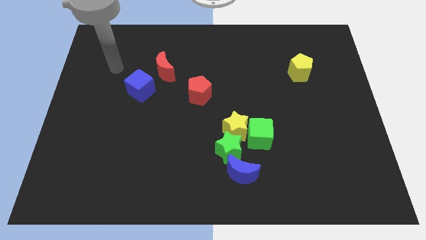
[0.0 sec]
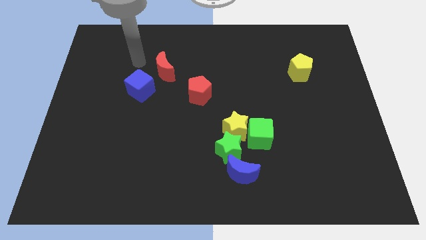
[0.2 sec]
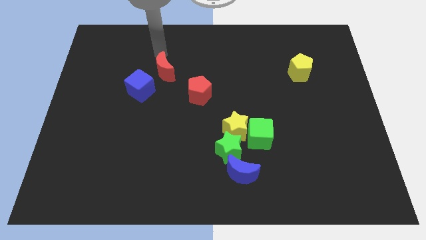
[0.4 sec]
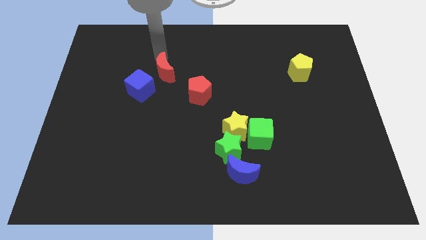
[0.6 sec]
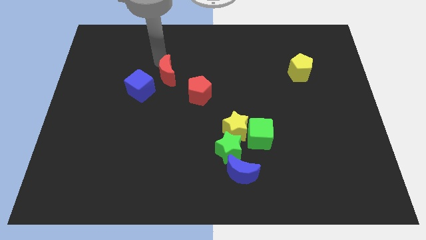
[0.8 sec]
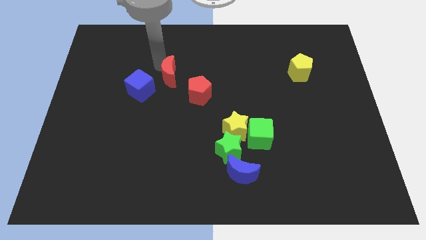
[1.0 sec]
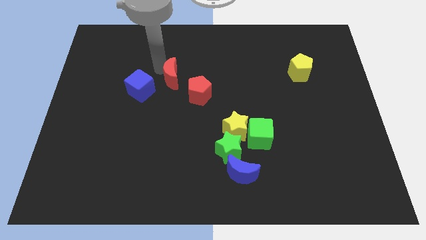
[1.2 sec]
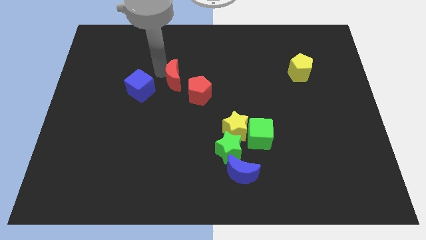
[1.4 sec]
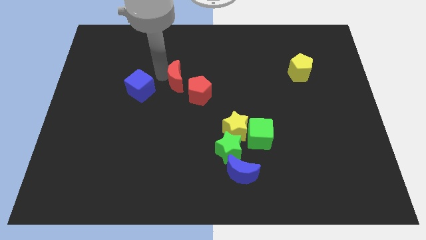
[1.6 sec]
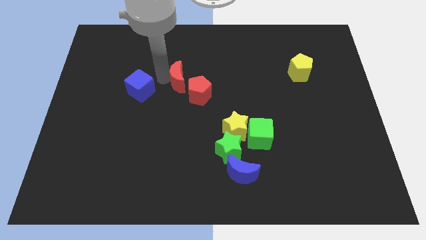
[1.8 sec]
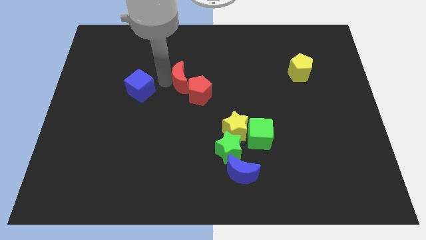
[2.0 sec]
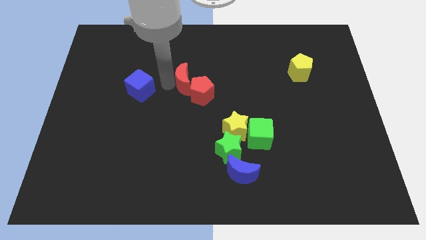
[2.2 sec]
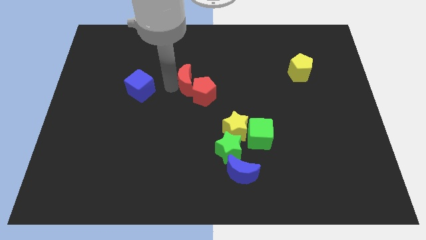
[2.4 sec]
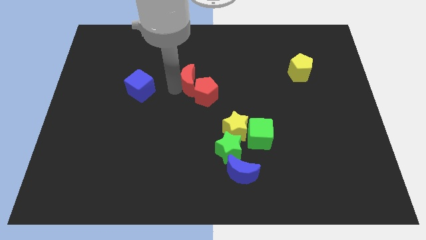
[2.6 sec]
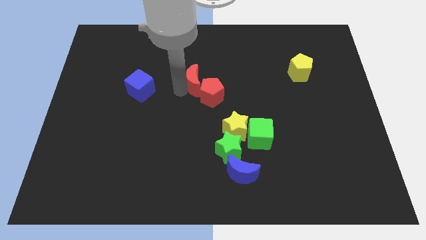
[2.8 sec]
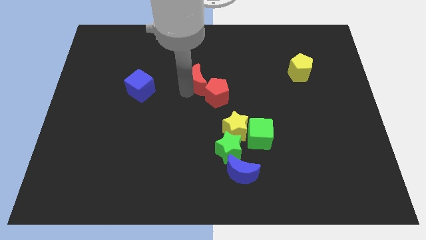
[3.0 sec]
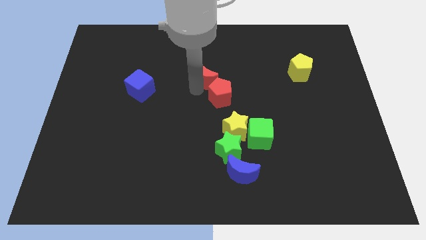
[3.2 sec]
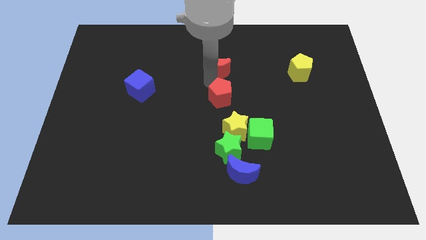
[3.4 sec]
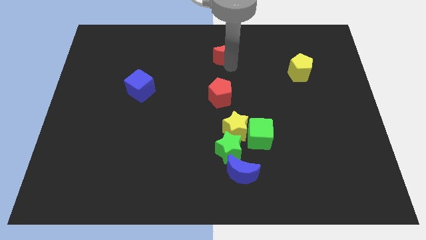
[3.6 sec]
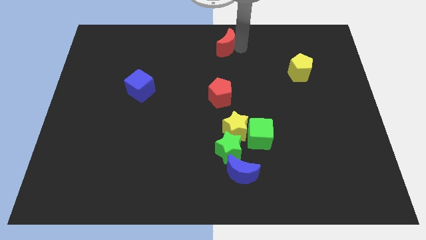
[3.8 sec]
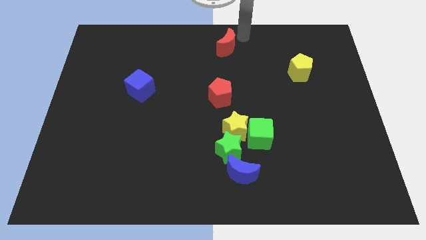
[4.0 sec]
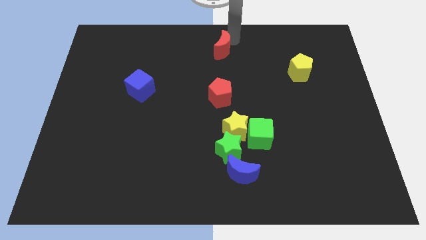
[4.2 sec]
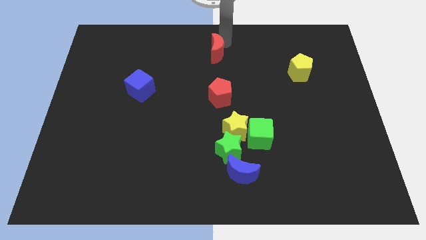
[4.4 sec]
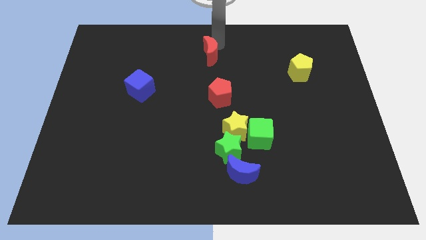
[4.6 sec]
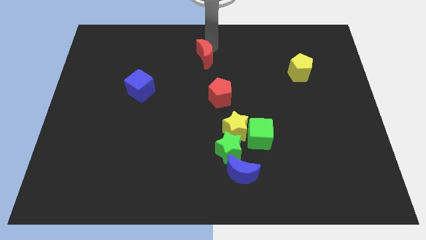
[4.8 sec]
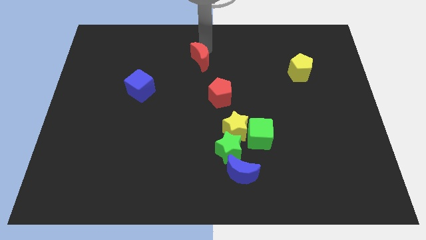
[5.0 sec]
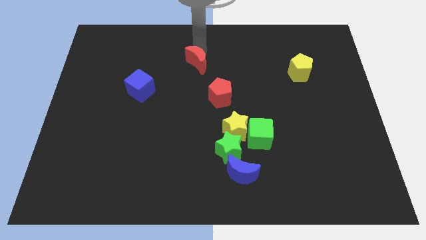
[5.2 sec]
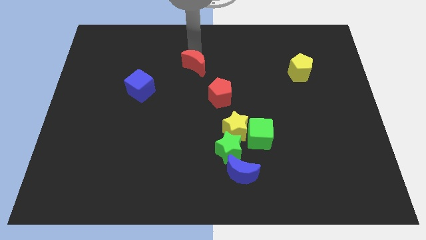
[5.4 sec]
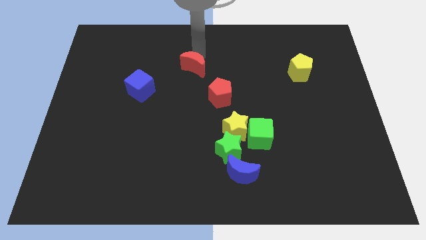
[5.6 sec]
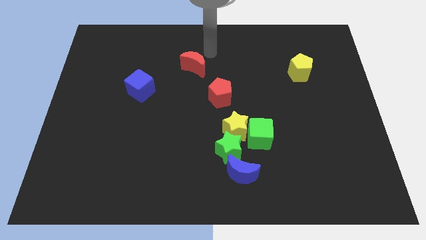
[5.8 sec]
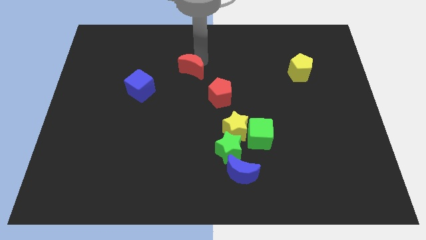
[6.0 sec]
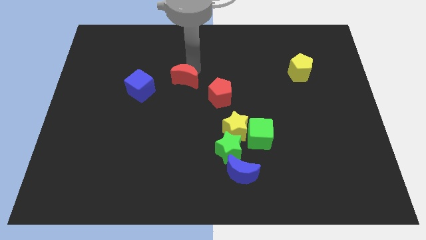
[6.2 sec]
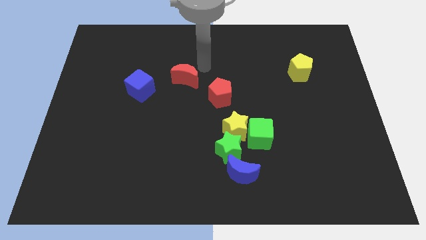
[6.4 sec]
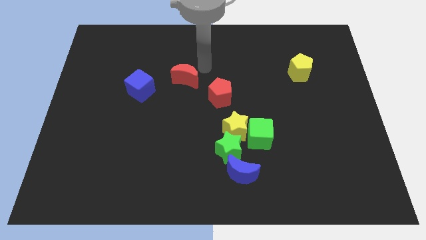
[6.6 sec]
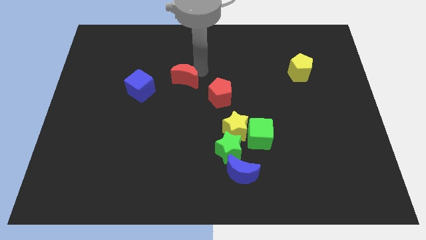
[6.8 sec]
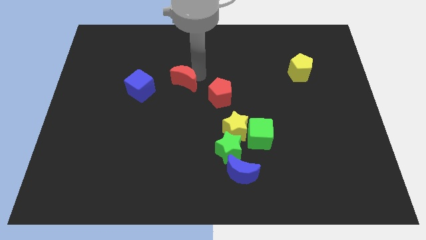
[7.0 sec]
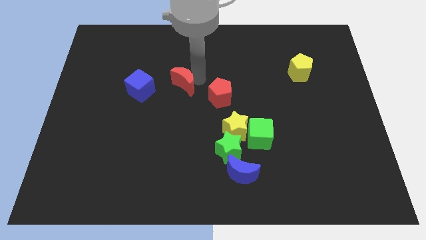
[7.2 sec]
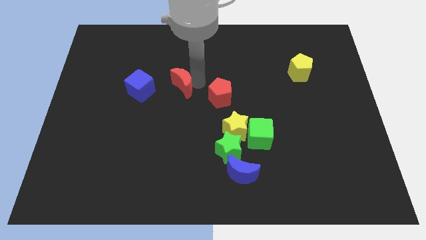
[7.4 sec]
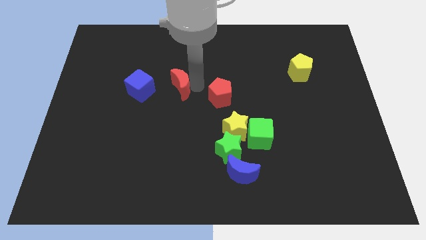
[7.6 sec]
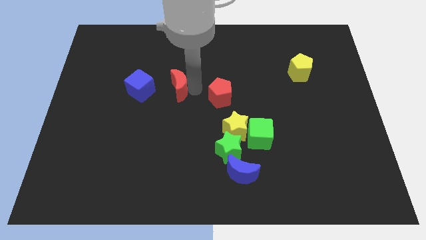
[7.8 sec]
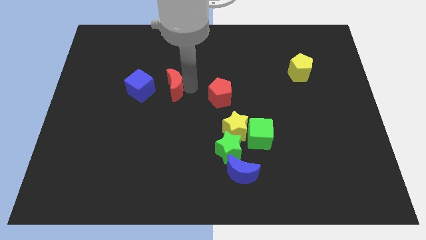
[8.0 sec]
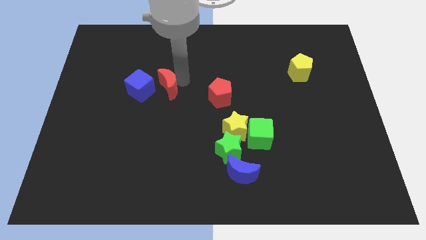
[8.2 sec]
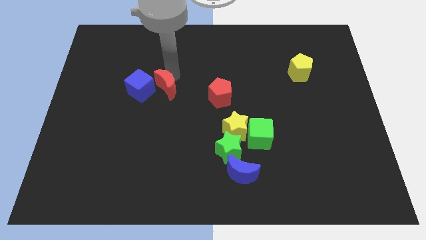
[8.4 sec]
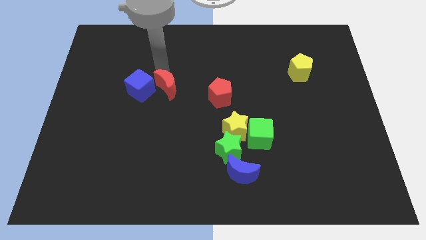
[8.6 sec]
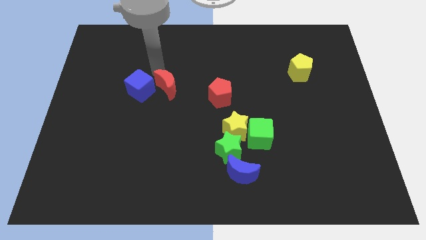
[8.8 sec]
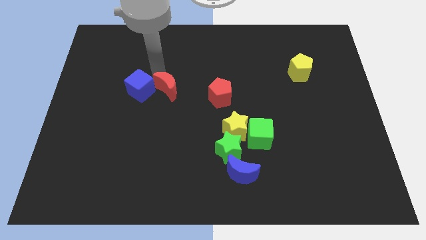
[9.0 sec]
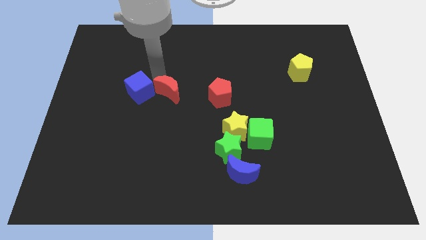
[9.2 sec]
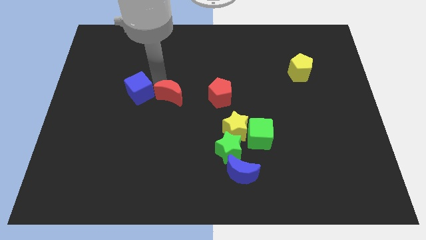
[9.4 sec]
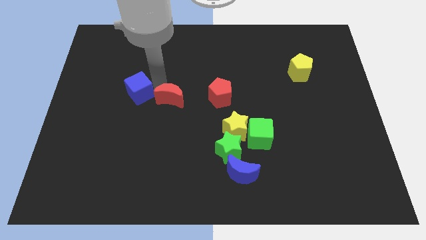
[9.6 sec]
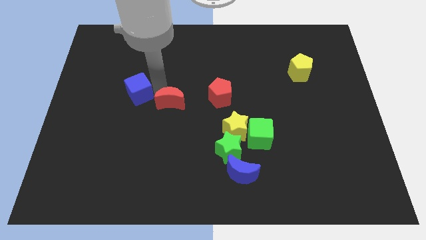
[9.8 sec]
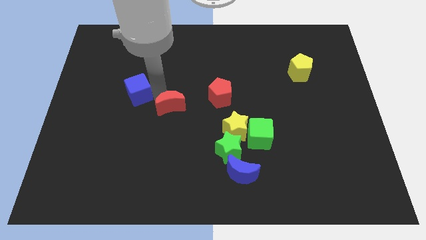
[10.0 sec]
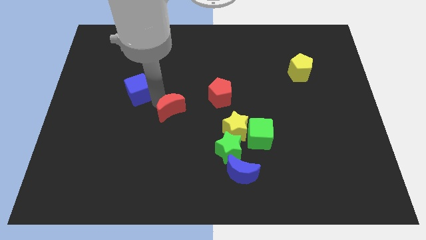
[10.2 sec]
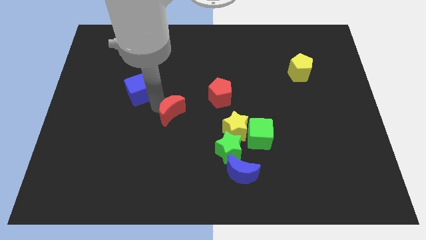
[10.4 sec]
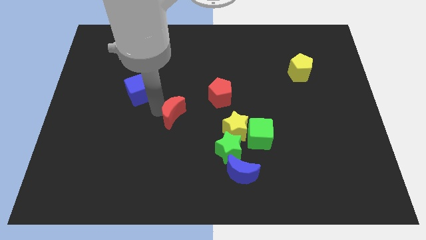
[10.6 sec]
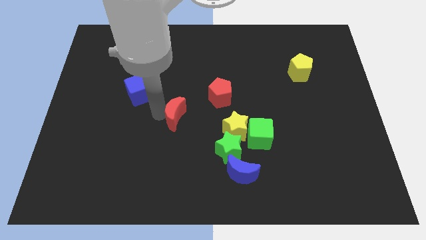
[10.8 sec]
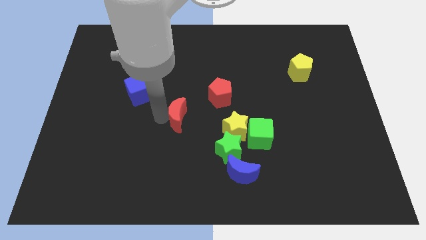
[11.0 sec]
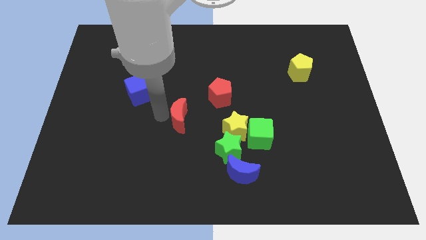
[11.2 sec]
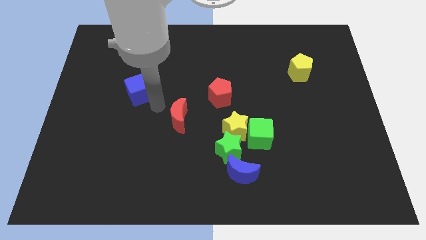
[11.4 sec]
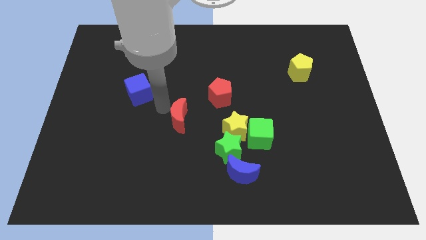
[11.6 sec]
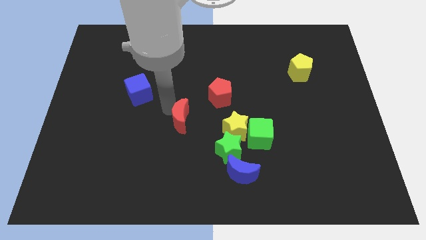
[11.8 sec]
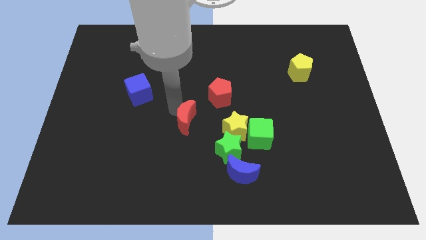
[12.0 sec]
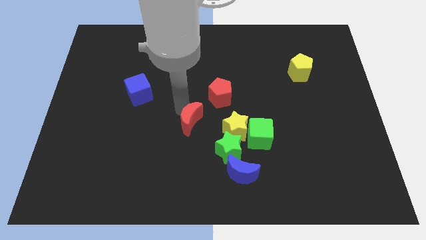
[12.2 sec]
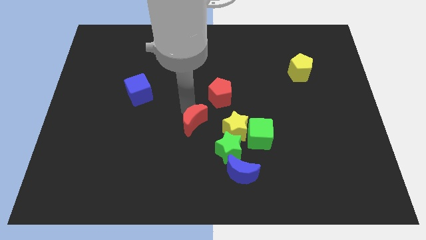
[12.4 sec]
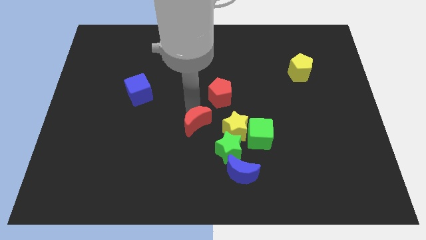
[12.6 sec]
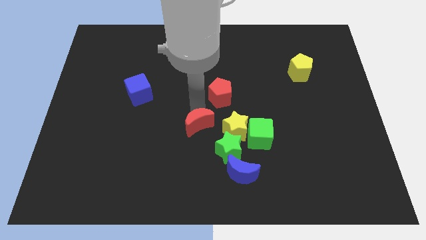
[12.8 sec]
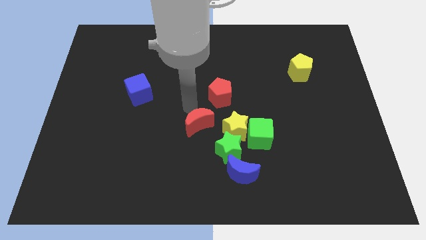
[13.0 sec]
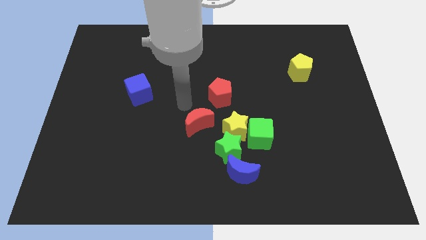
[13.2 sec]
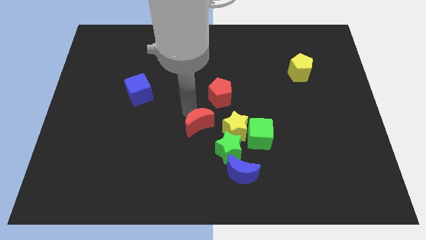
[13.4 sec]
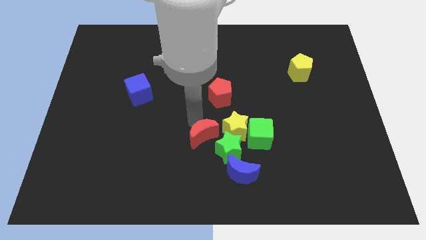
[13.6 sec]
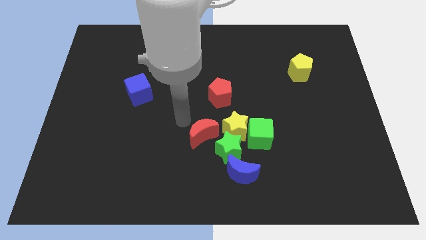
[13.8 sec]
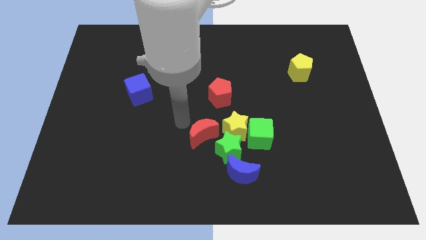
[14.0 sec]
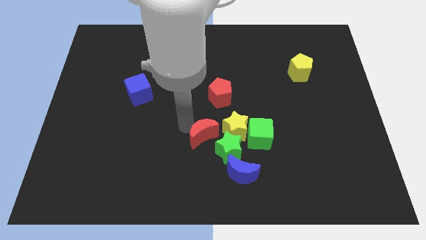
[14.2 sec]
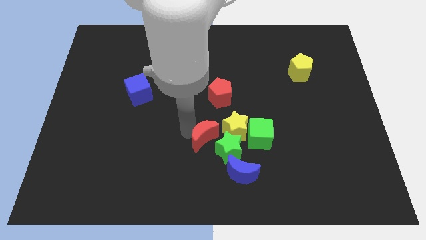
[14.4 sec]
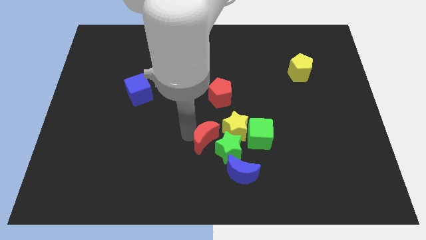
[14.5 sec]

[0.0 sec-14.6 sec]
push the red moon next to the green star
